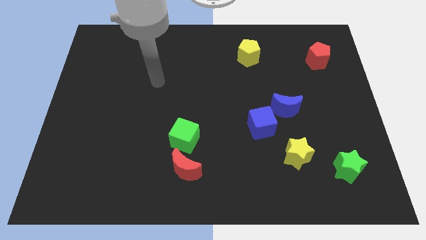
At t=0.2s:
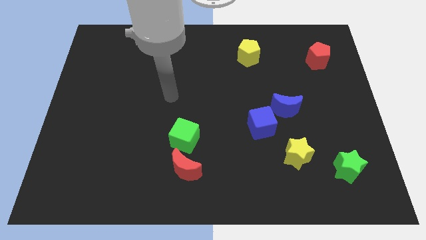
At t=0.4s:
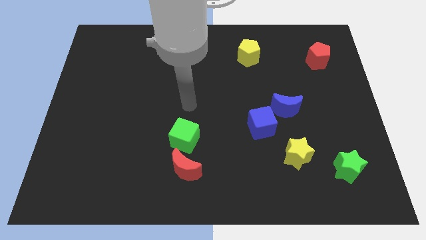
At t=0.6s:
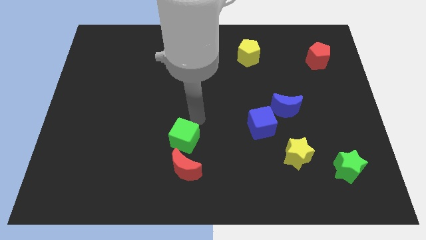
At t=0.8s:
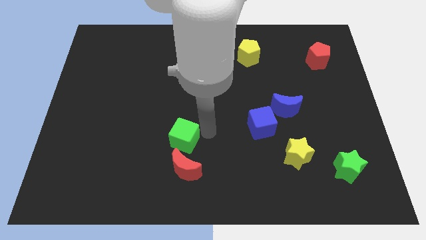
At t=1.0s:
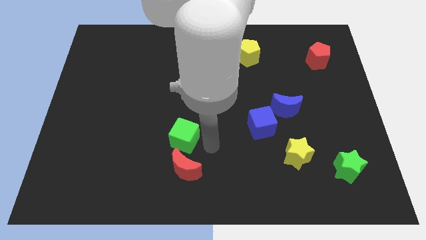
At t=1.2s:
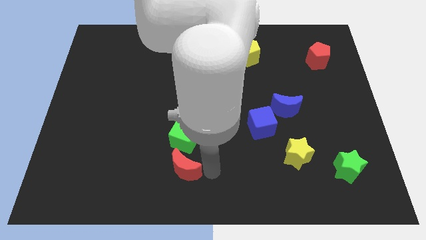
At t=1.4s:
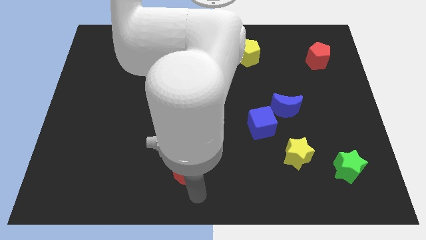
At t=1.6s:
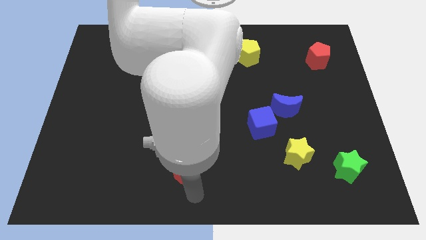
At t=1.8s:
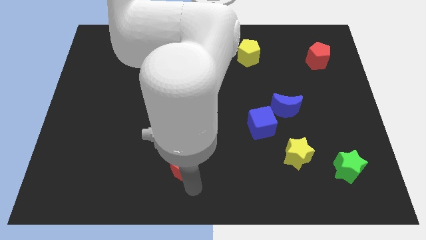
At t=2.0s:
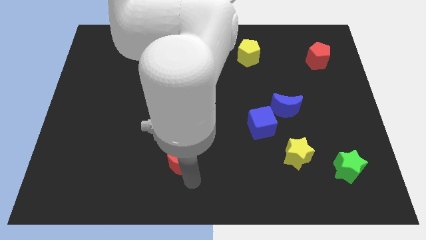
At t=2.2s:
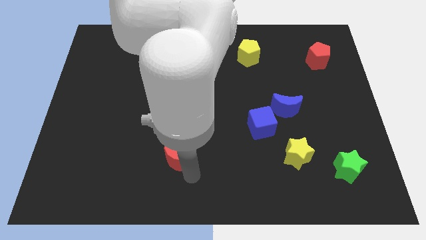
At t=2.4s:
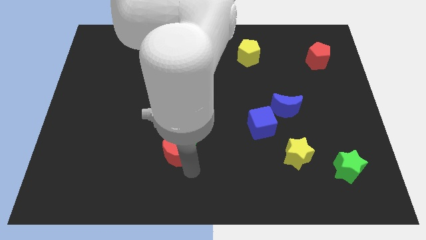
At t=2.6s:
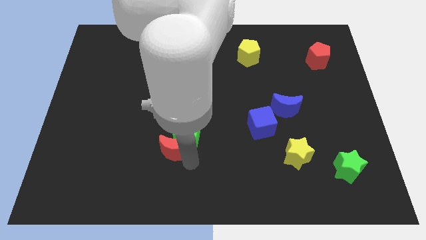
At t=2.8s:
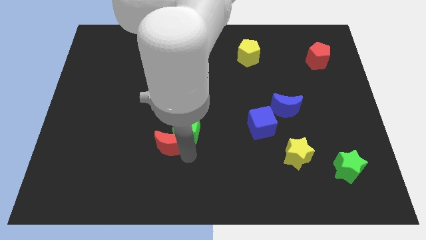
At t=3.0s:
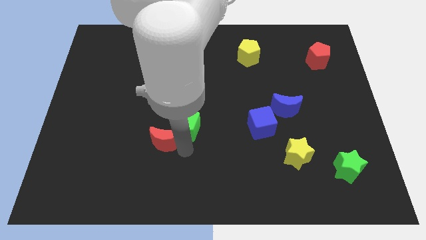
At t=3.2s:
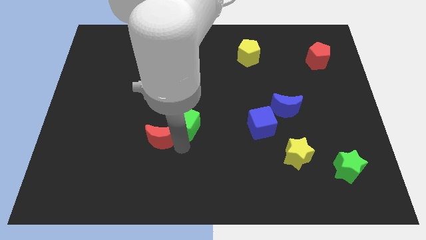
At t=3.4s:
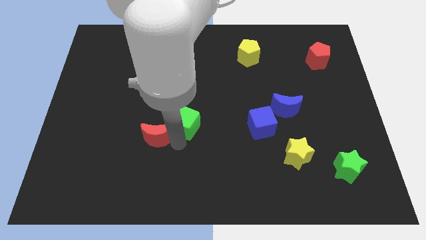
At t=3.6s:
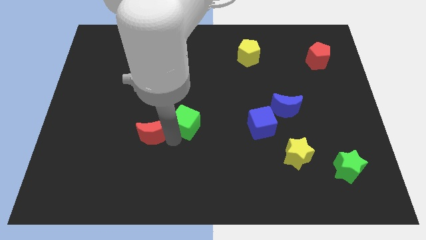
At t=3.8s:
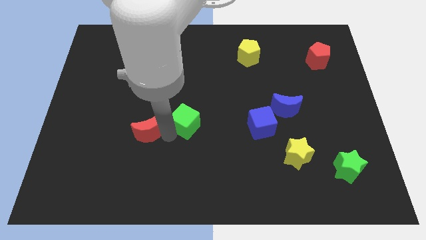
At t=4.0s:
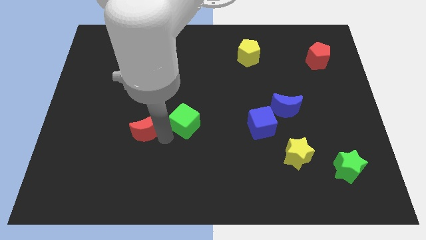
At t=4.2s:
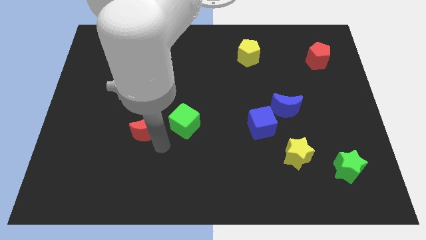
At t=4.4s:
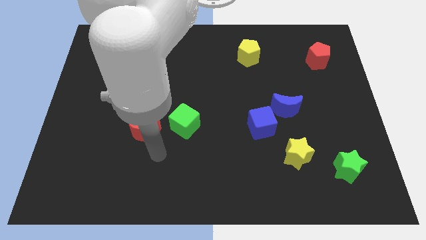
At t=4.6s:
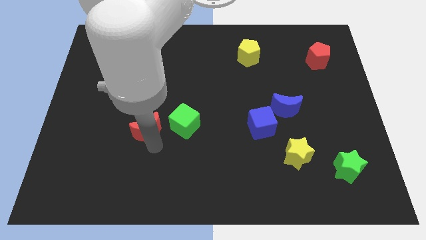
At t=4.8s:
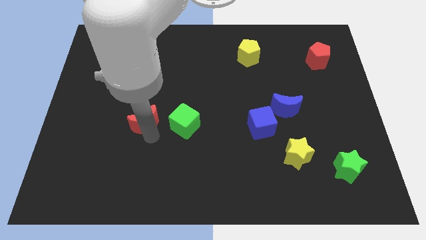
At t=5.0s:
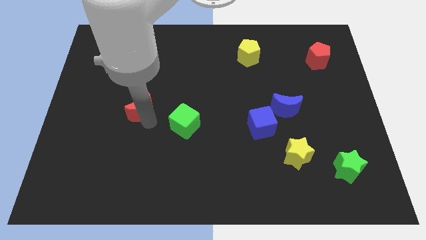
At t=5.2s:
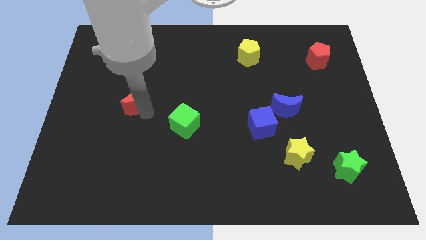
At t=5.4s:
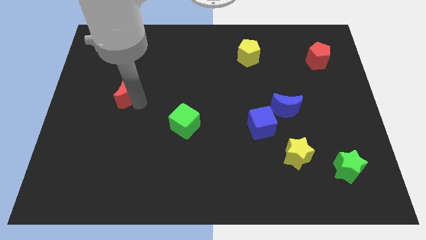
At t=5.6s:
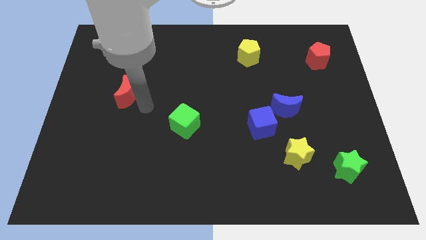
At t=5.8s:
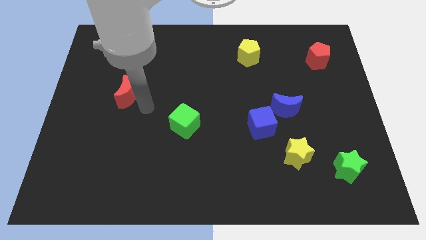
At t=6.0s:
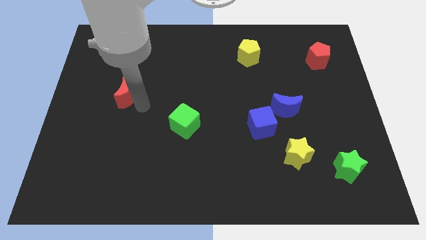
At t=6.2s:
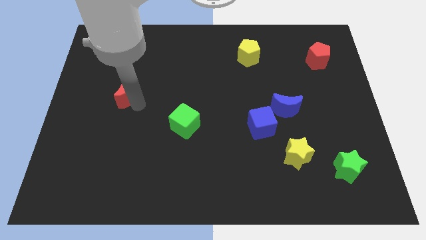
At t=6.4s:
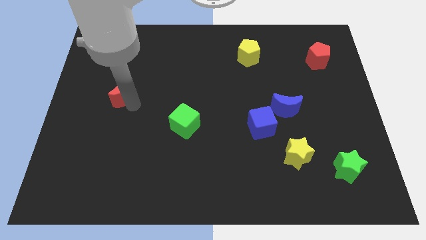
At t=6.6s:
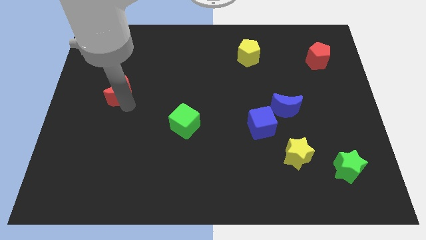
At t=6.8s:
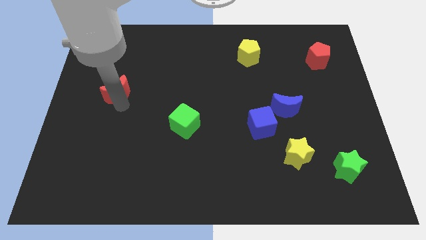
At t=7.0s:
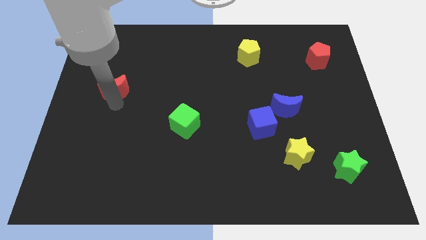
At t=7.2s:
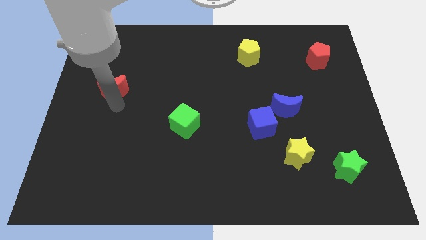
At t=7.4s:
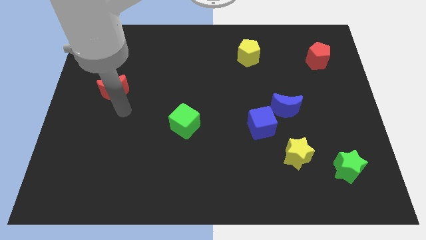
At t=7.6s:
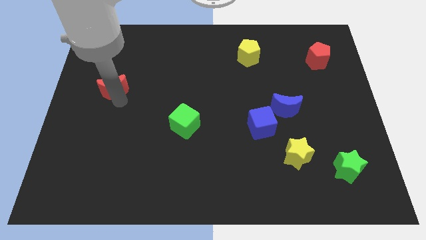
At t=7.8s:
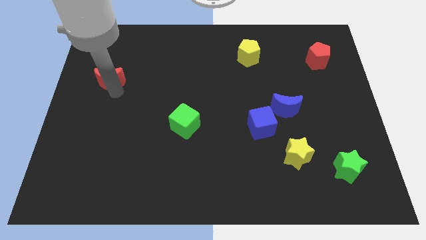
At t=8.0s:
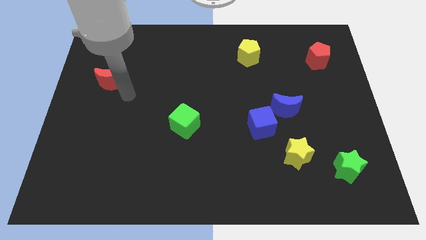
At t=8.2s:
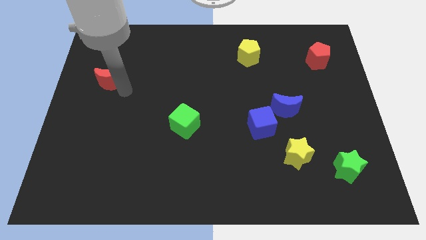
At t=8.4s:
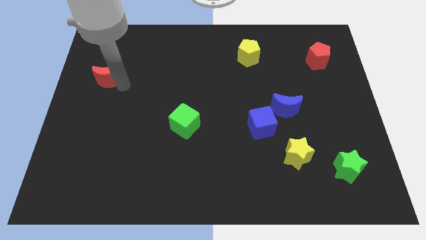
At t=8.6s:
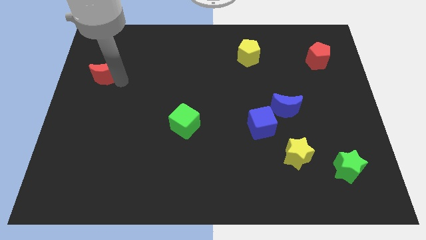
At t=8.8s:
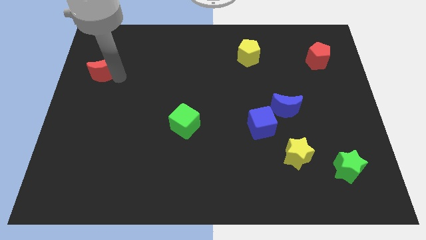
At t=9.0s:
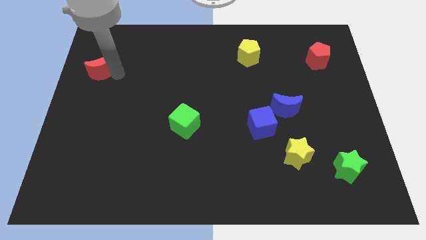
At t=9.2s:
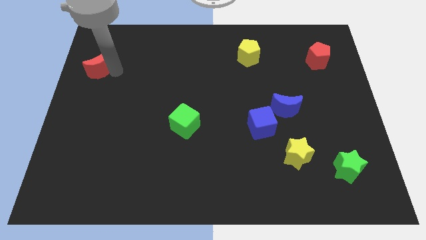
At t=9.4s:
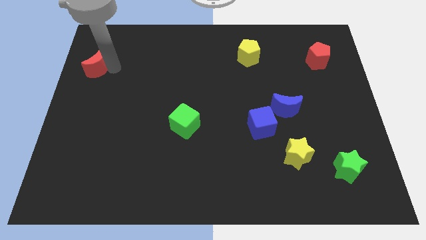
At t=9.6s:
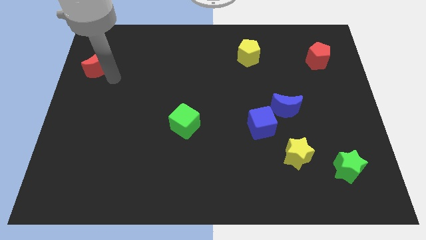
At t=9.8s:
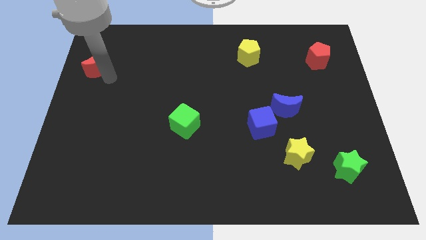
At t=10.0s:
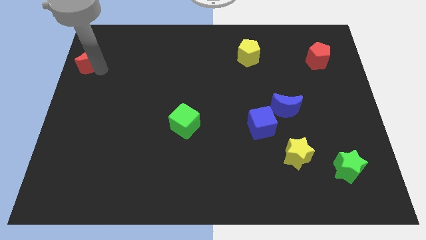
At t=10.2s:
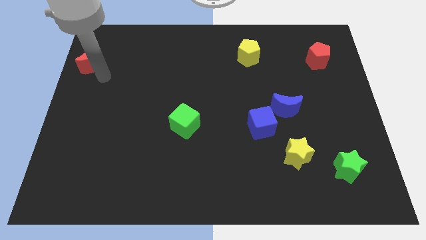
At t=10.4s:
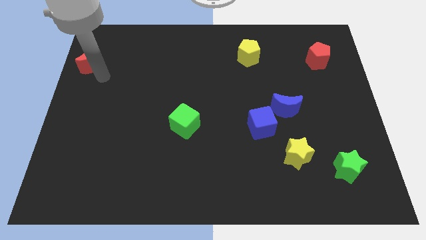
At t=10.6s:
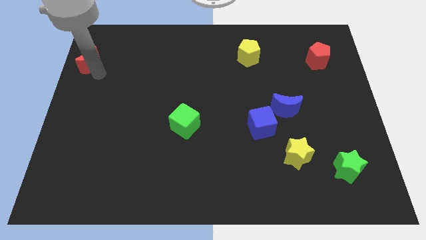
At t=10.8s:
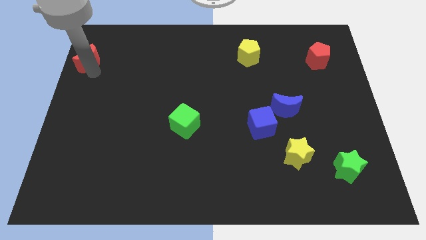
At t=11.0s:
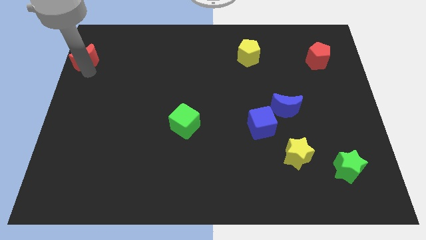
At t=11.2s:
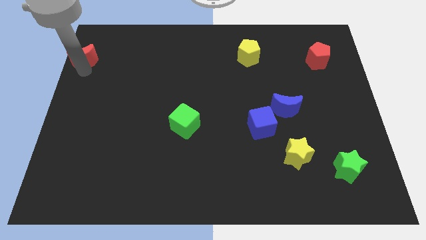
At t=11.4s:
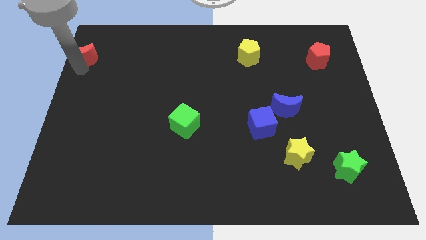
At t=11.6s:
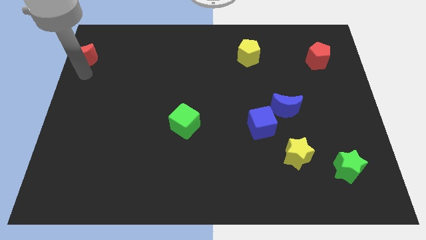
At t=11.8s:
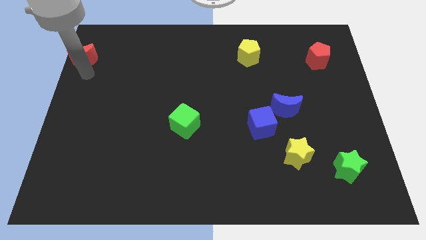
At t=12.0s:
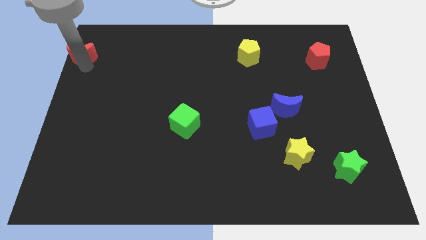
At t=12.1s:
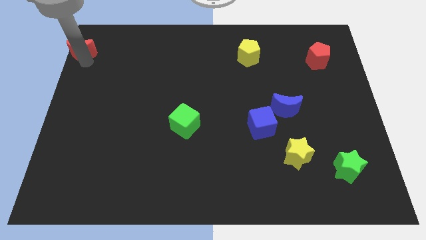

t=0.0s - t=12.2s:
slide the red moon to the top left

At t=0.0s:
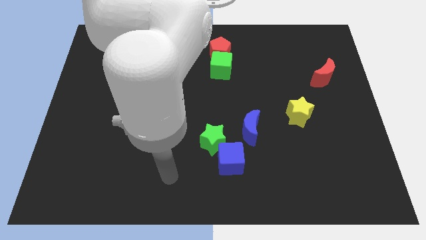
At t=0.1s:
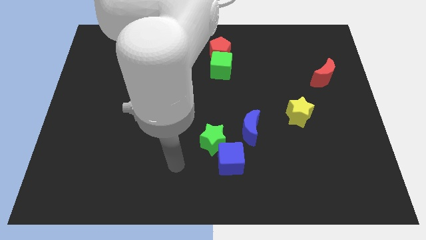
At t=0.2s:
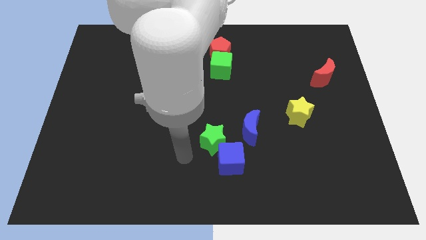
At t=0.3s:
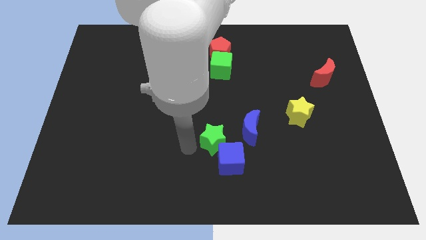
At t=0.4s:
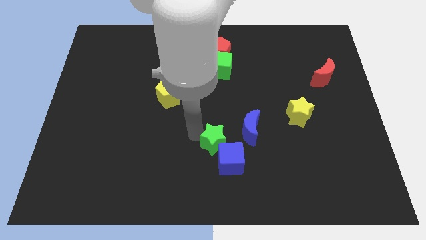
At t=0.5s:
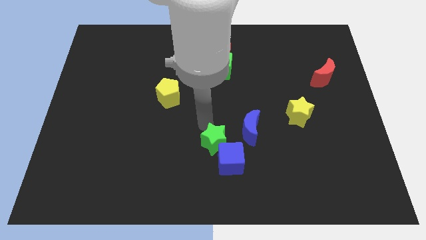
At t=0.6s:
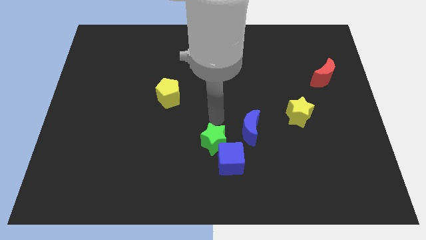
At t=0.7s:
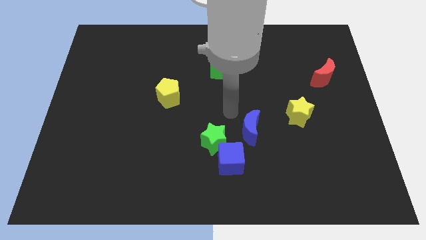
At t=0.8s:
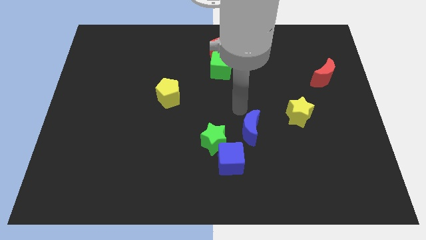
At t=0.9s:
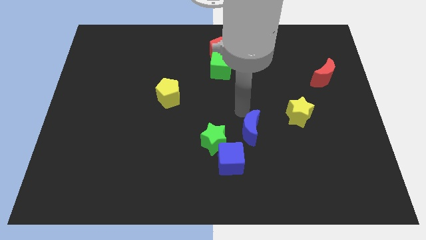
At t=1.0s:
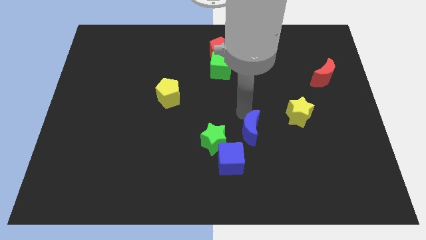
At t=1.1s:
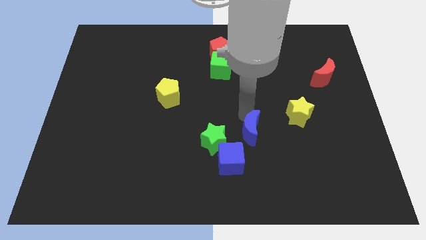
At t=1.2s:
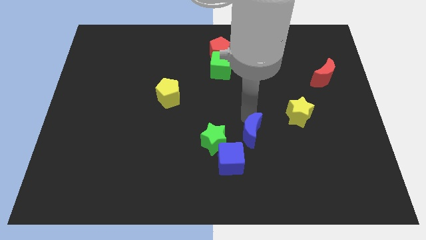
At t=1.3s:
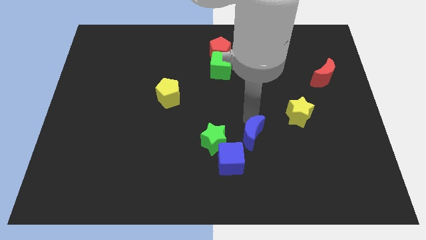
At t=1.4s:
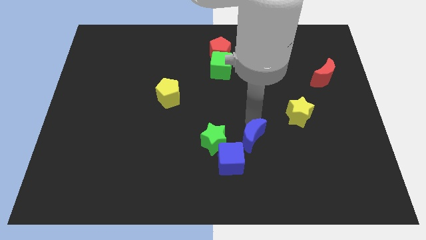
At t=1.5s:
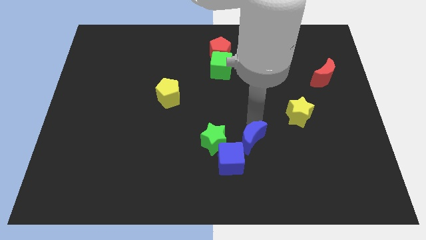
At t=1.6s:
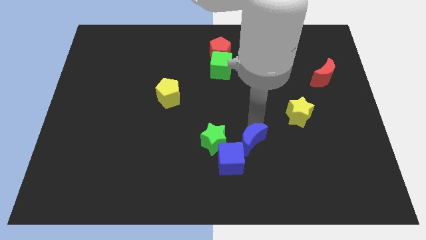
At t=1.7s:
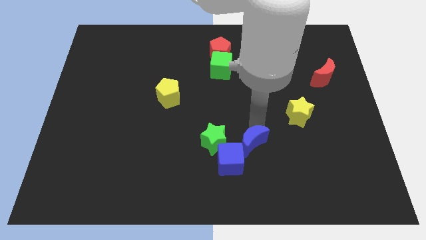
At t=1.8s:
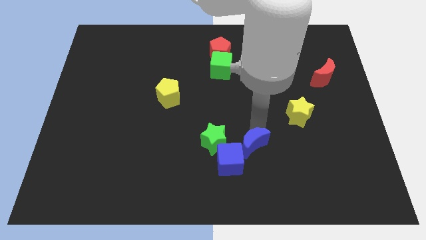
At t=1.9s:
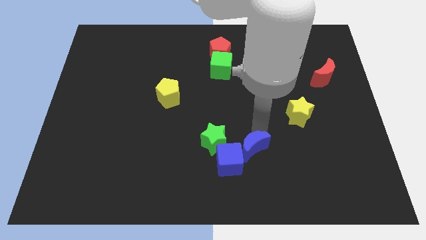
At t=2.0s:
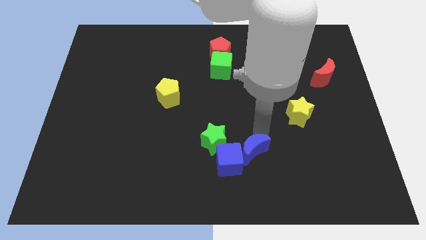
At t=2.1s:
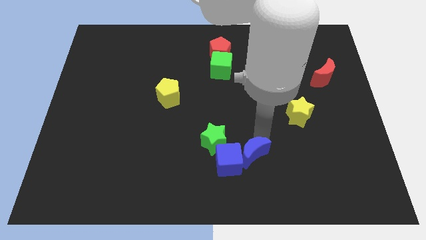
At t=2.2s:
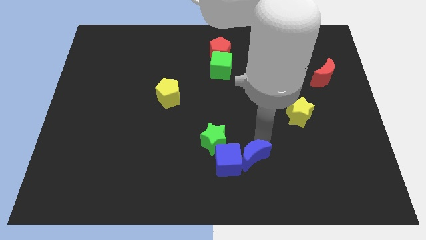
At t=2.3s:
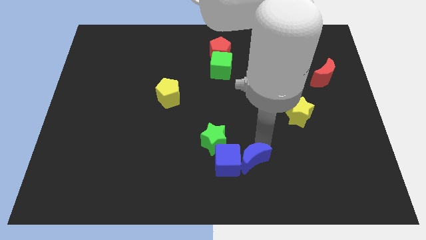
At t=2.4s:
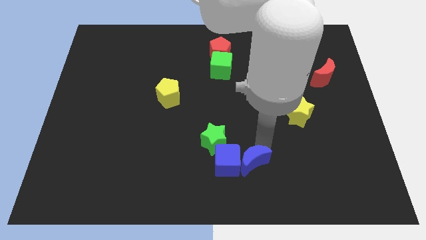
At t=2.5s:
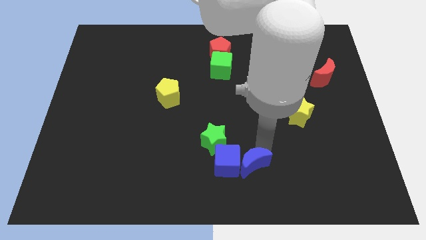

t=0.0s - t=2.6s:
slide the blue moon to the bottom
